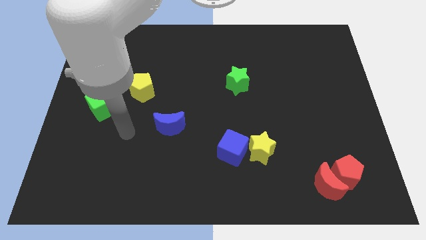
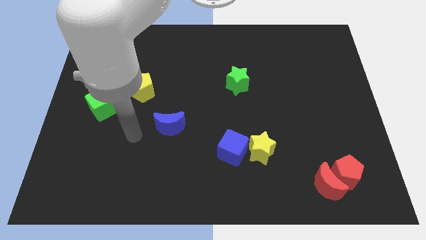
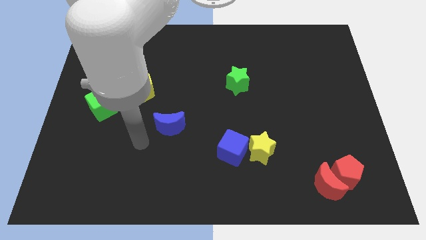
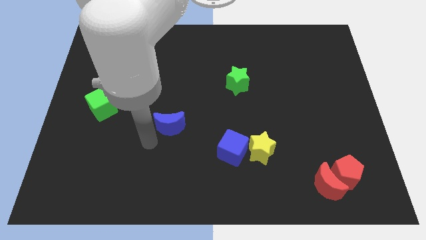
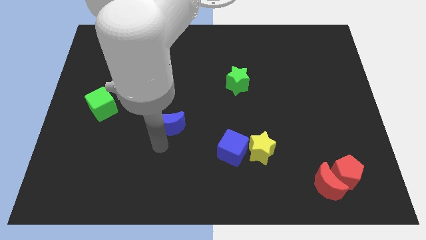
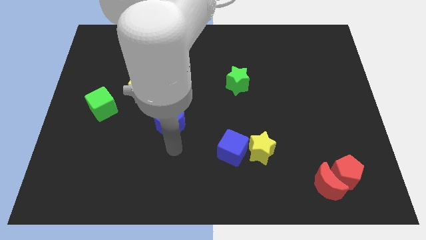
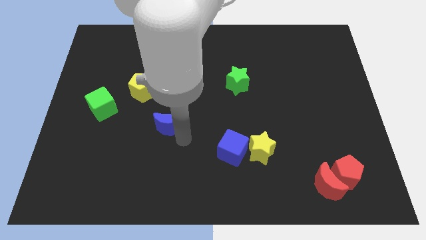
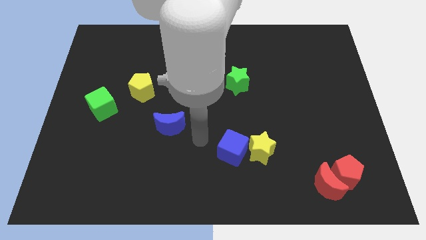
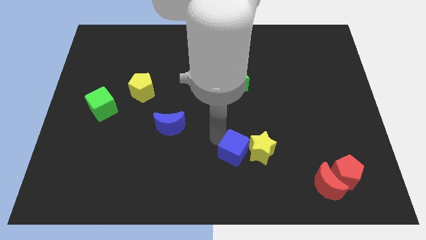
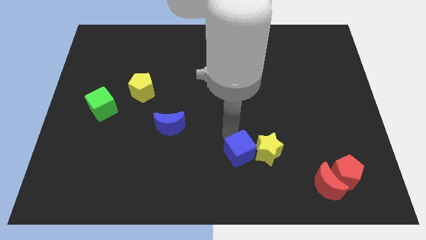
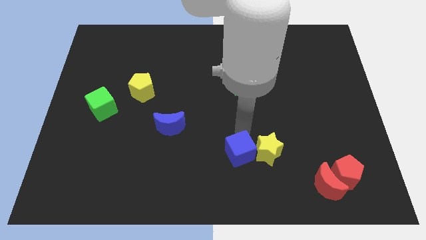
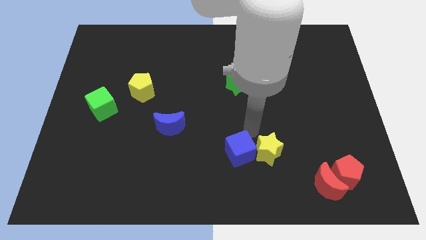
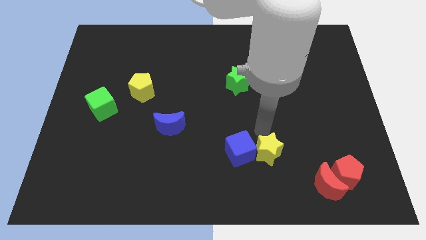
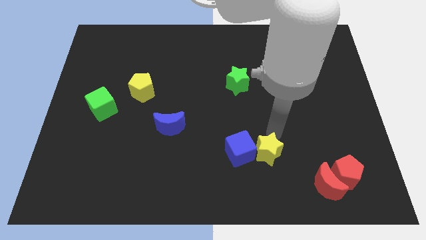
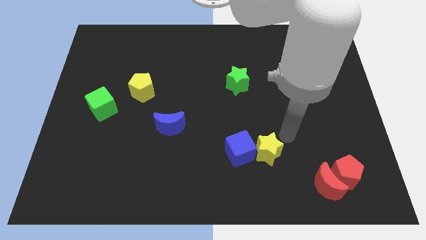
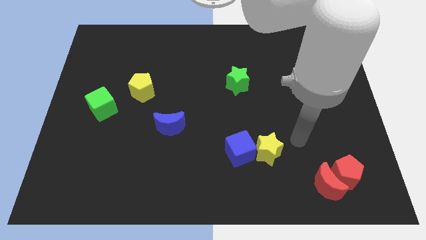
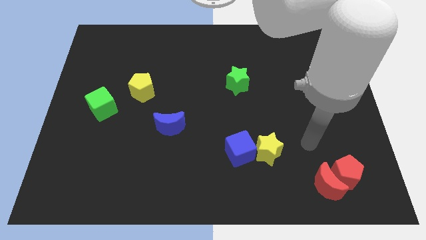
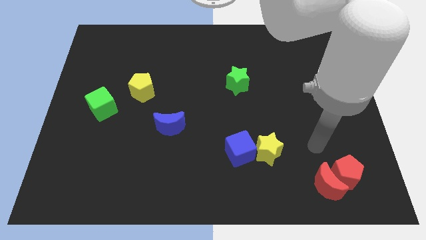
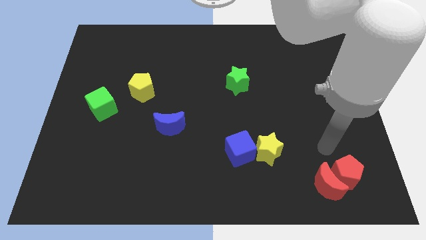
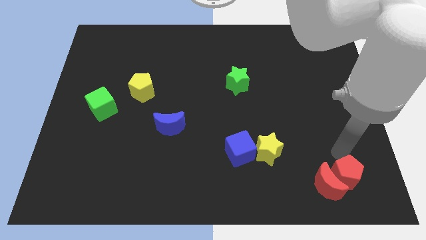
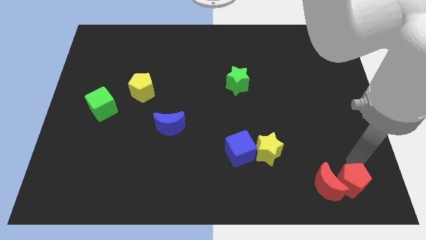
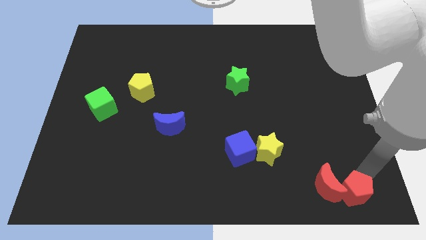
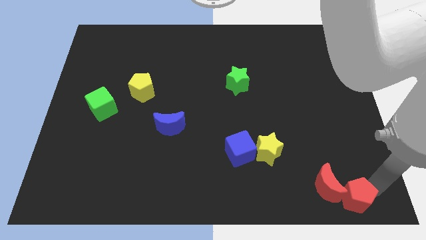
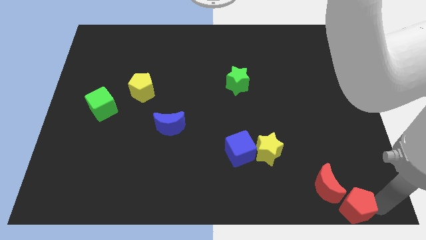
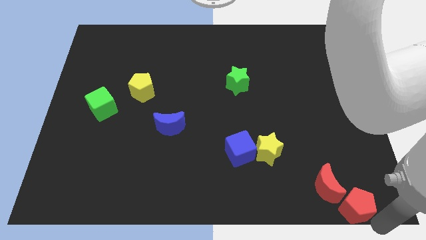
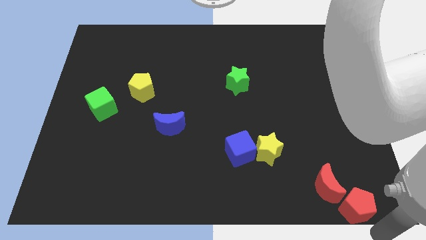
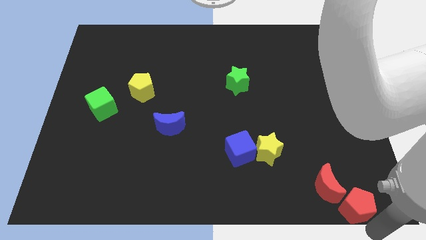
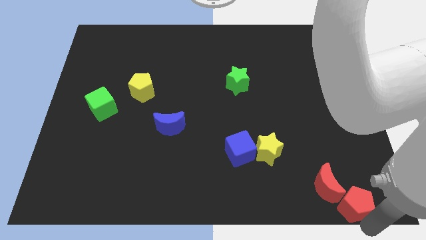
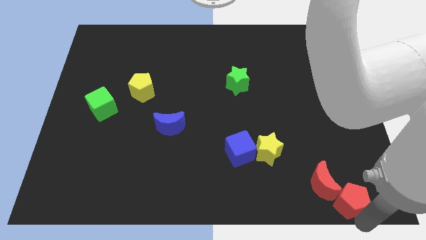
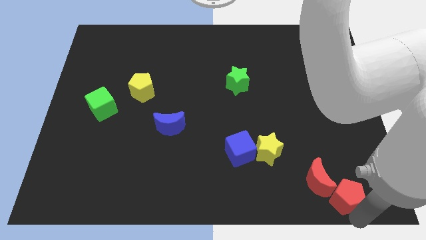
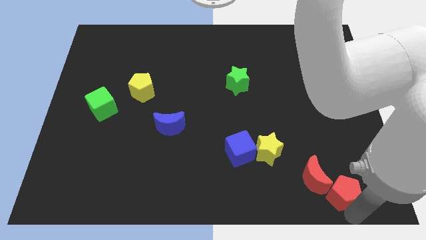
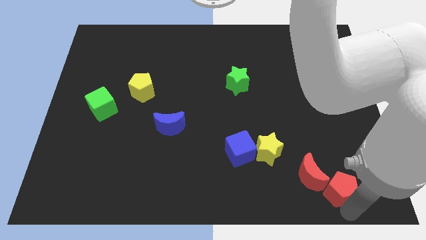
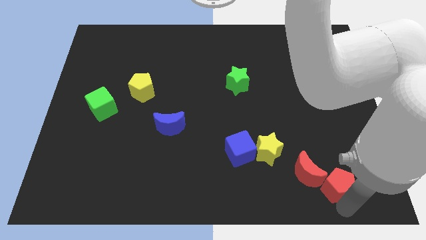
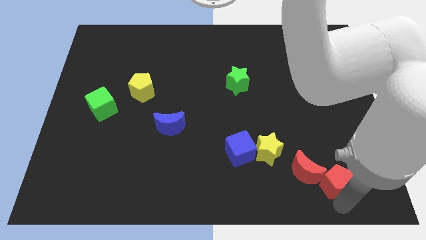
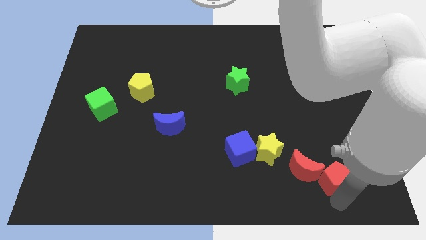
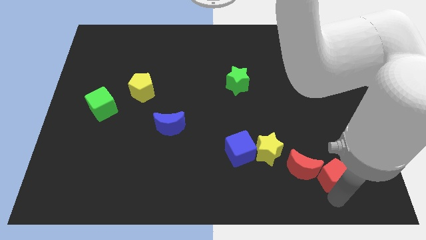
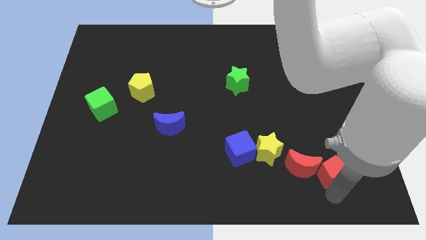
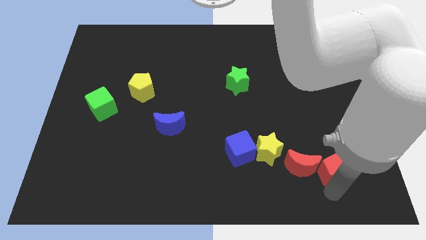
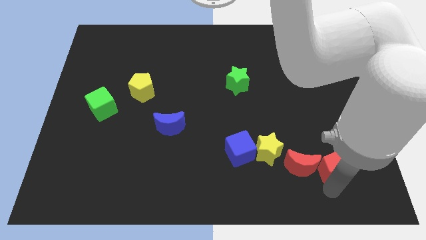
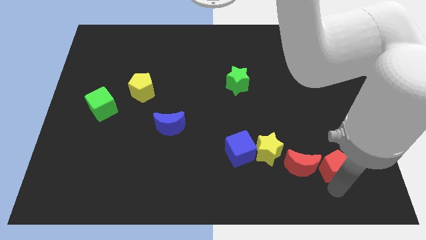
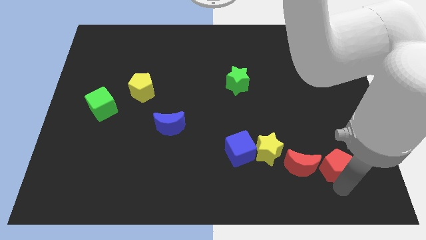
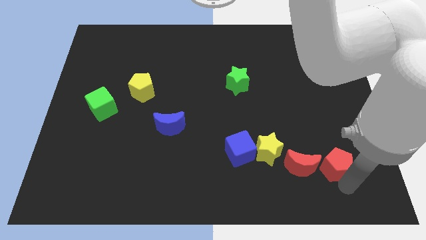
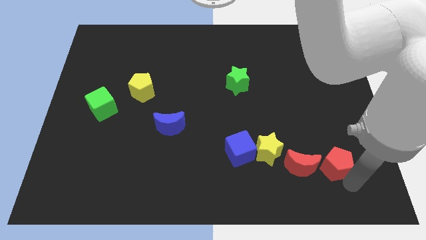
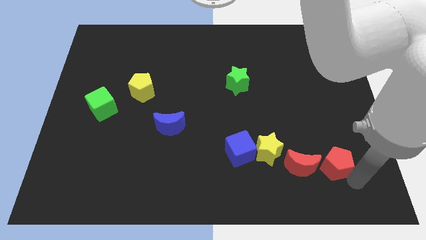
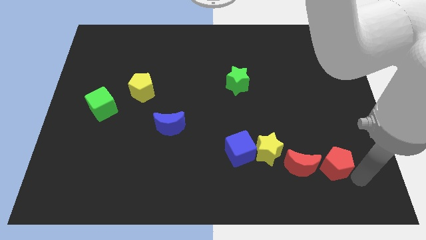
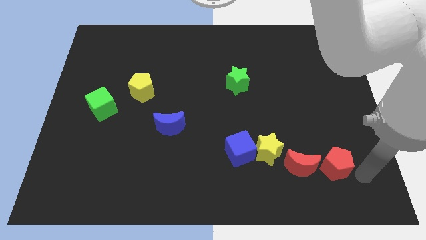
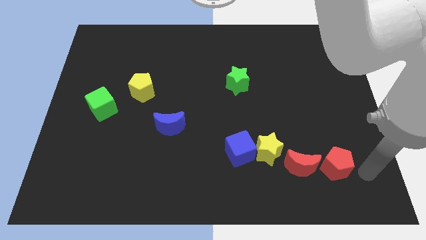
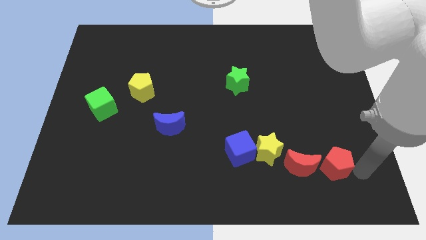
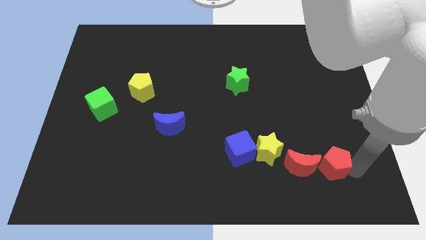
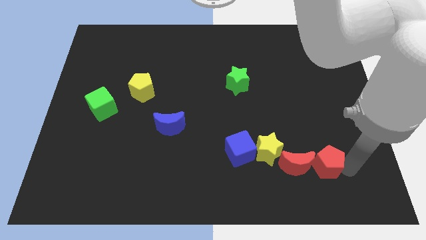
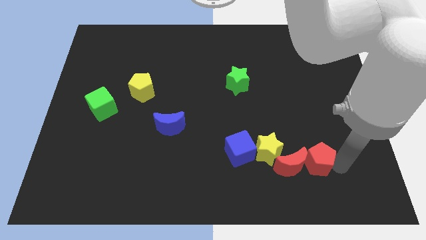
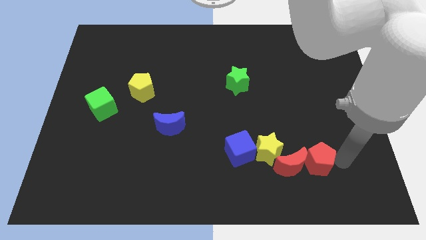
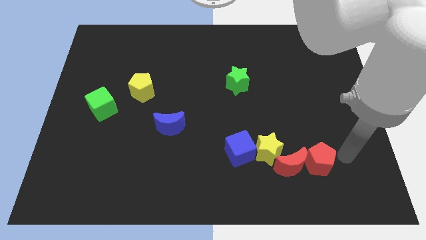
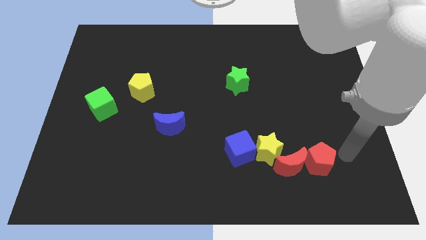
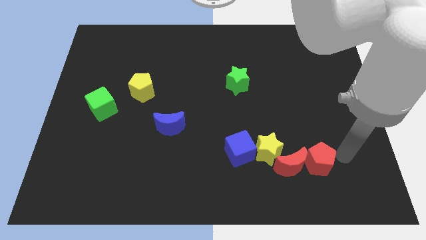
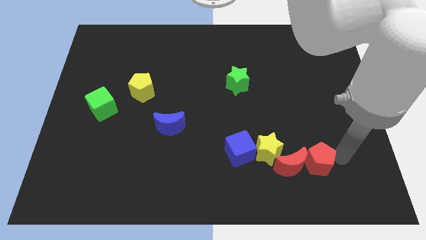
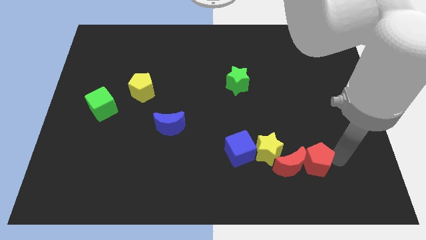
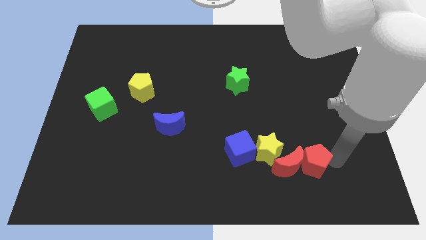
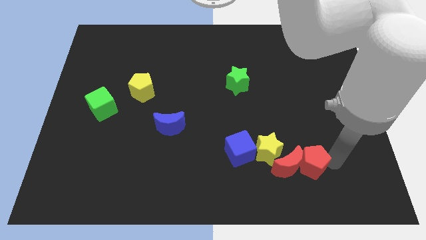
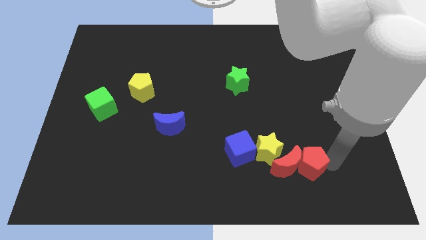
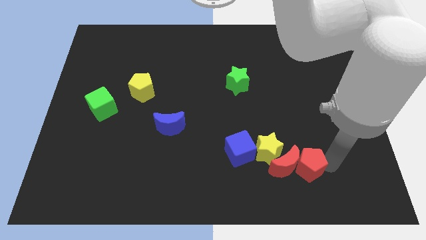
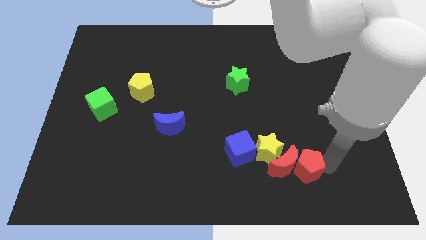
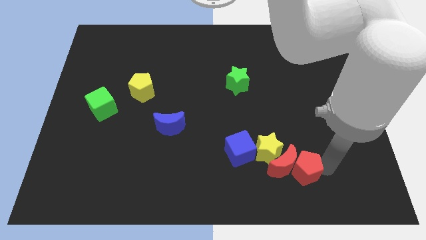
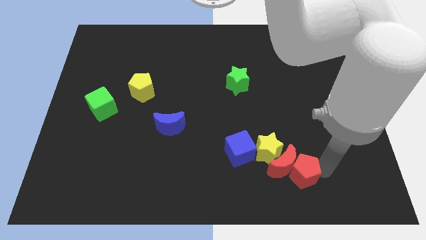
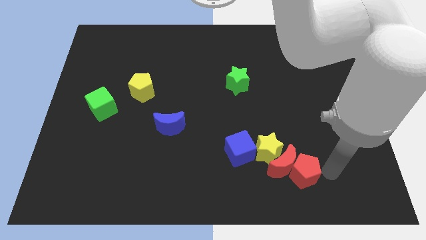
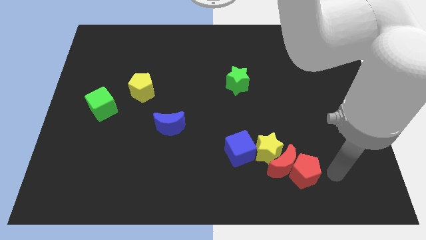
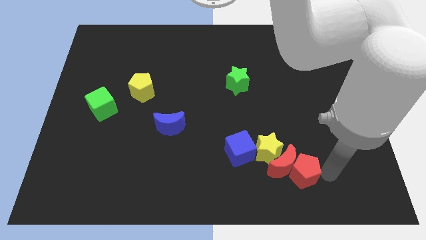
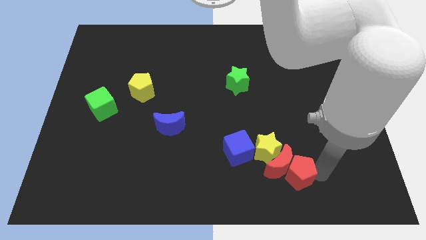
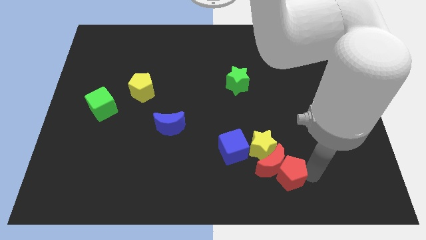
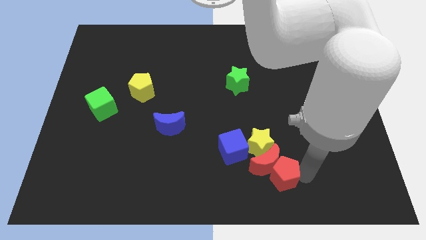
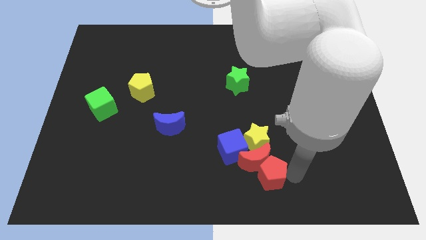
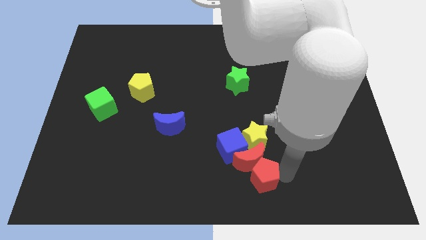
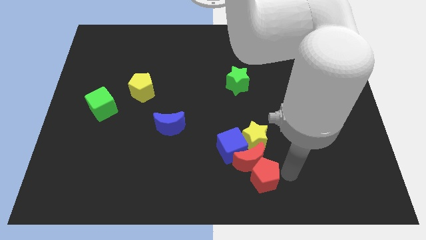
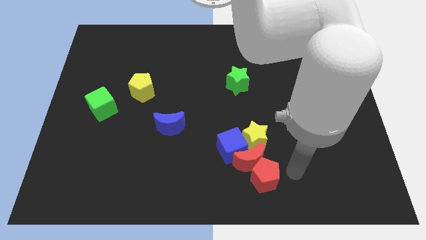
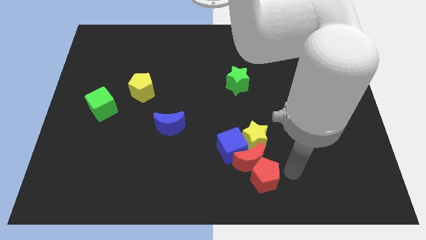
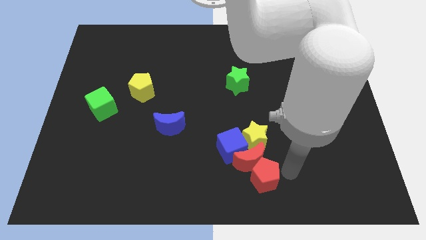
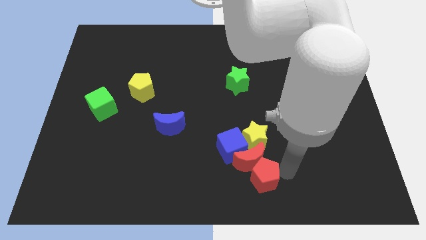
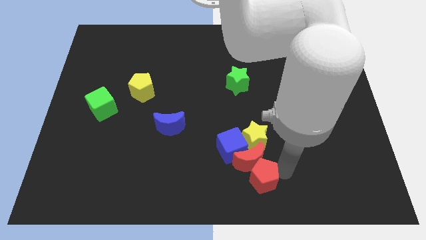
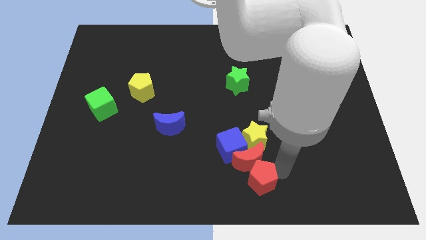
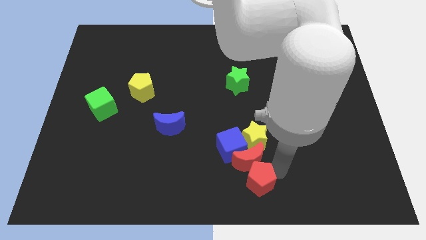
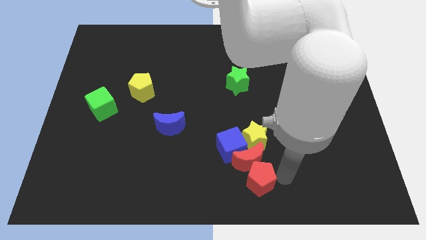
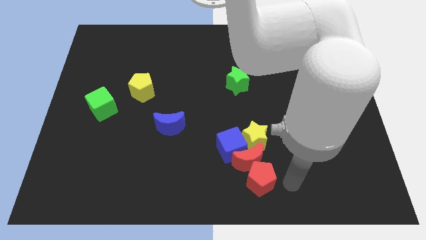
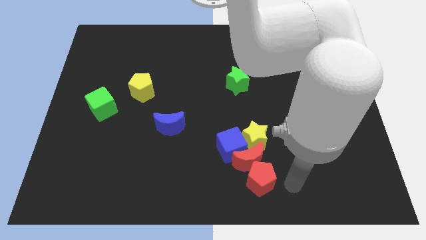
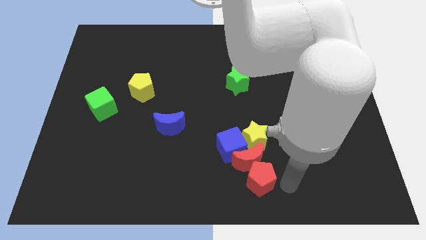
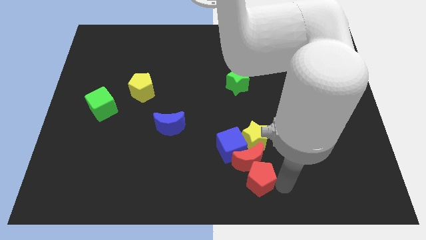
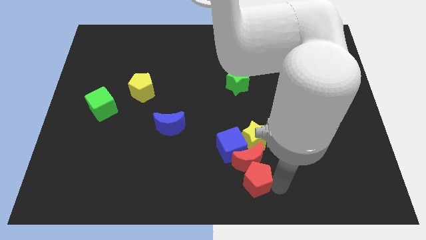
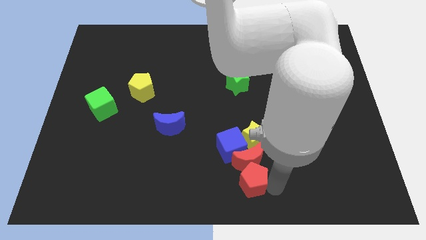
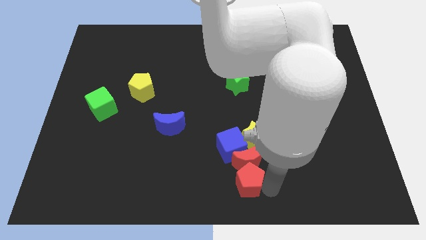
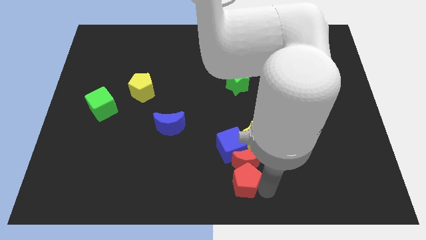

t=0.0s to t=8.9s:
slide the red pentagon left
